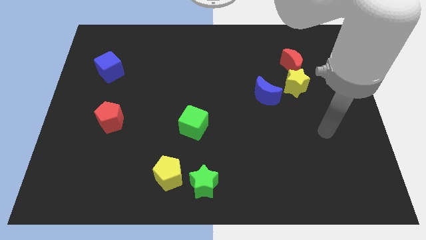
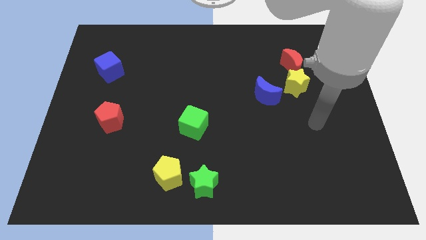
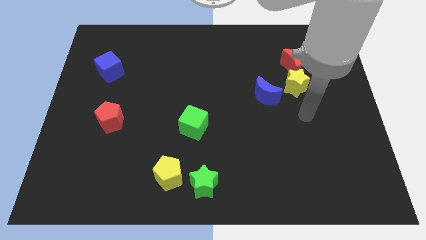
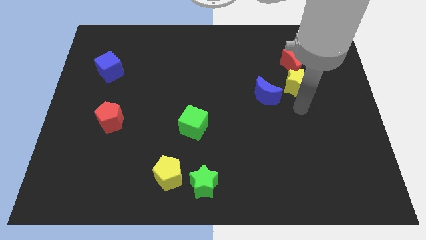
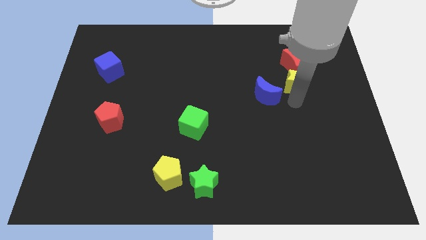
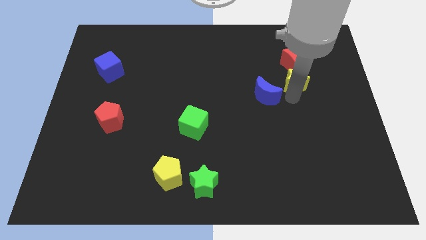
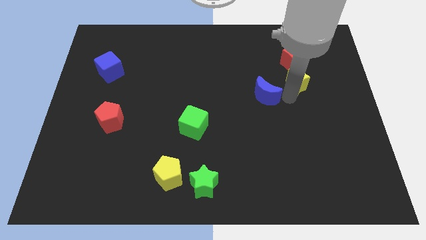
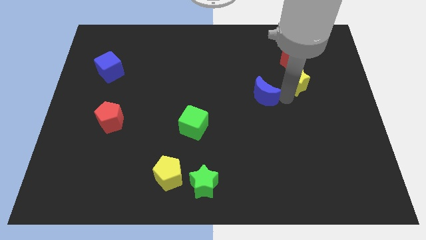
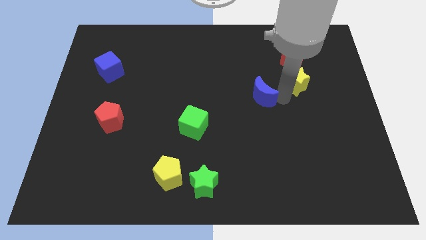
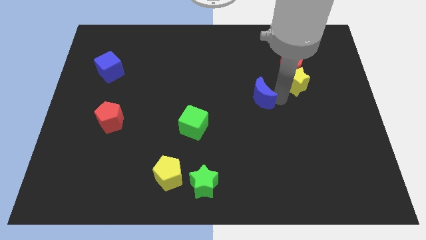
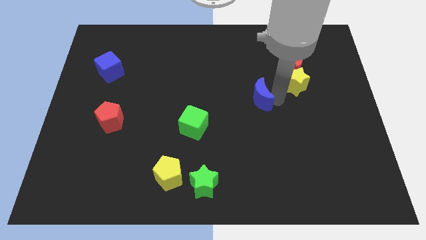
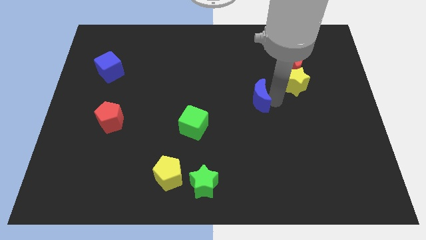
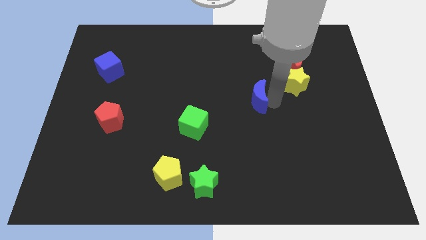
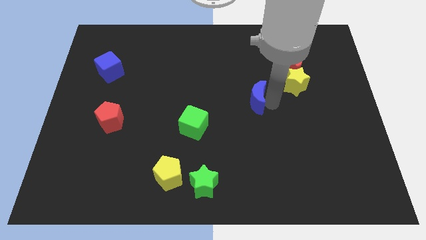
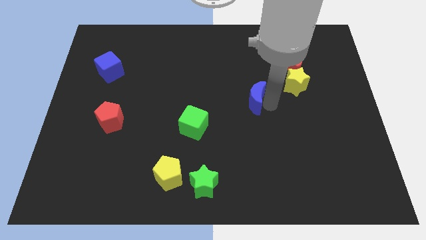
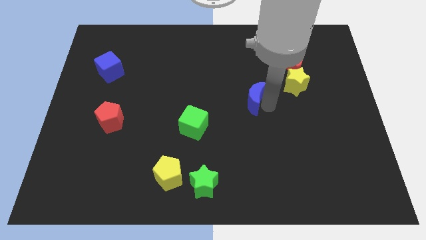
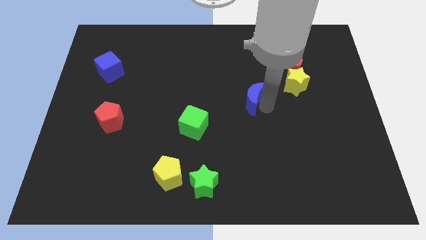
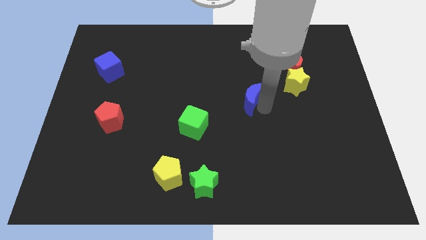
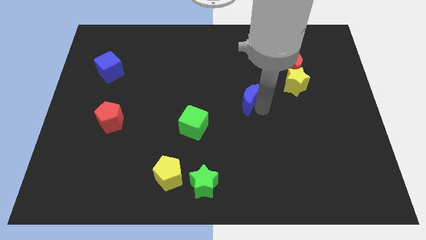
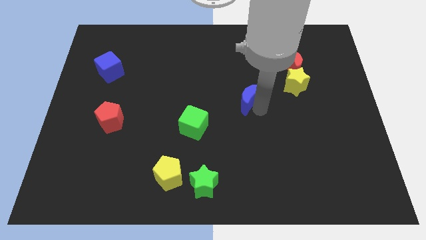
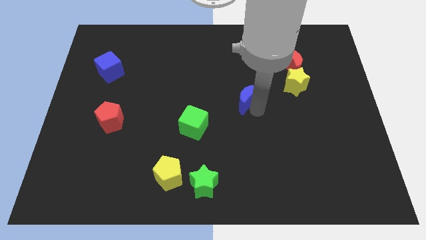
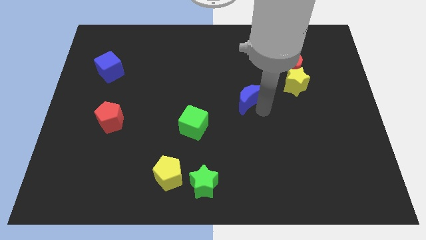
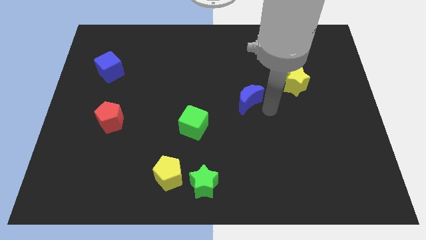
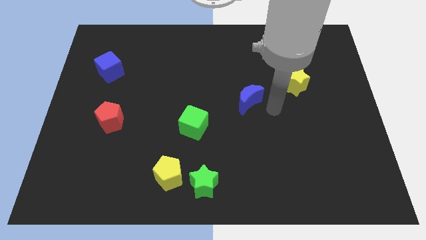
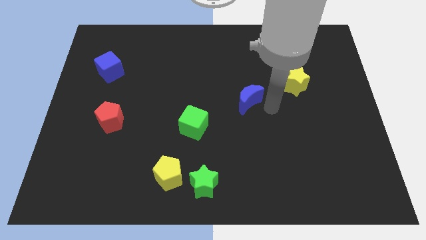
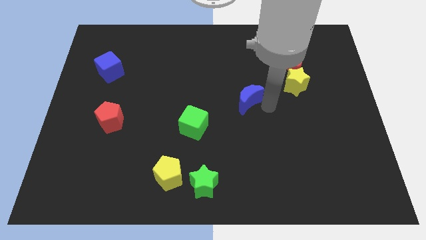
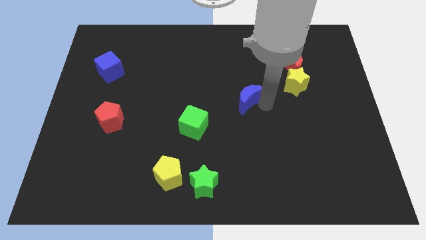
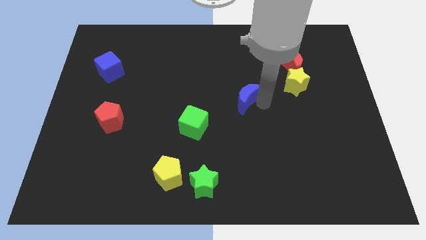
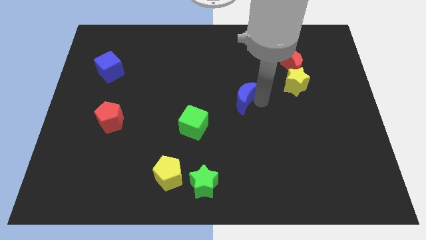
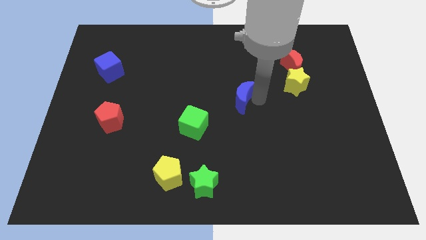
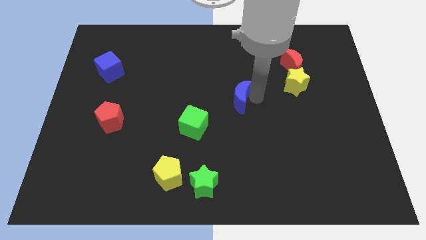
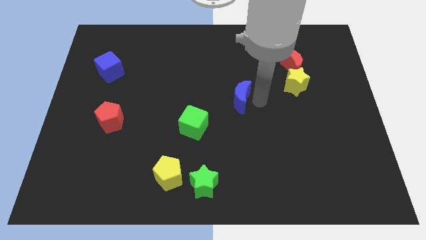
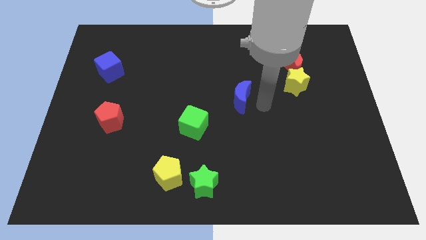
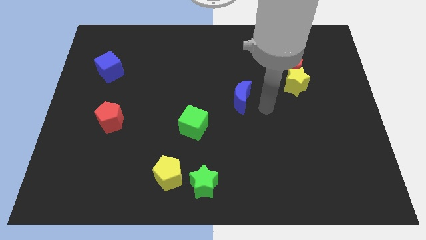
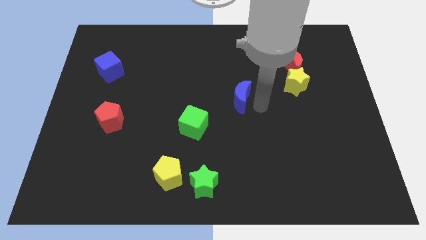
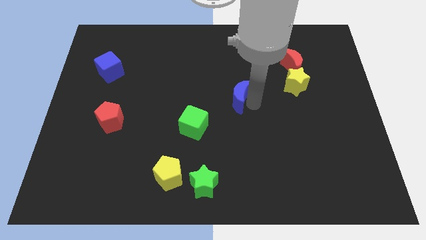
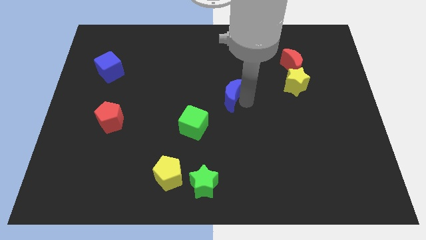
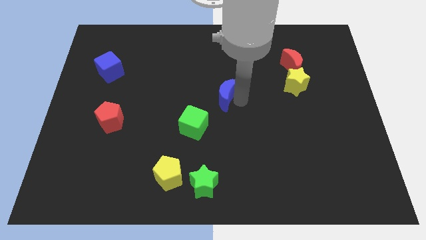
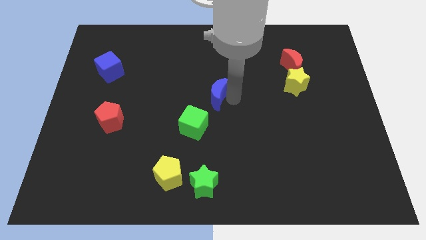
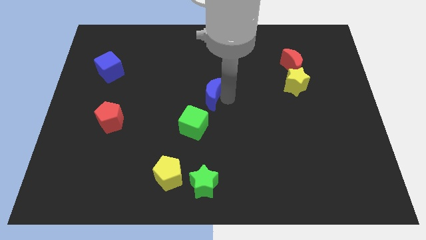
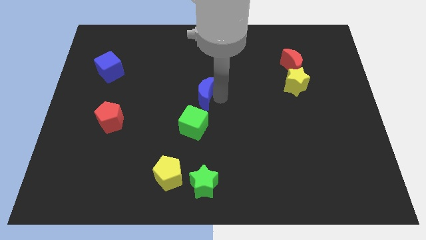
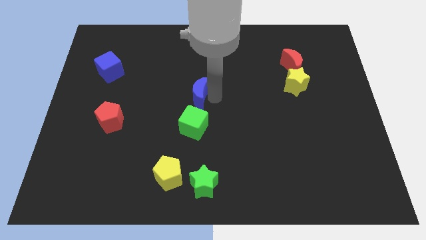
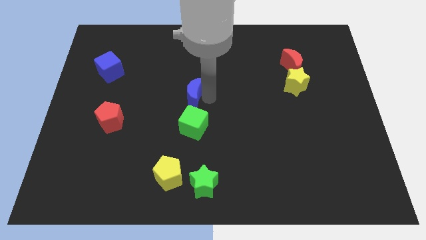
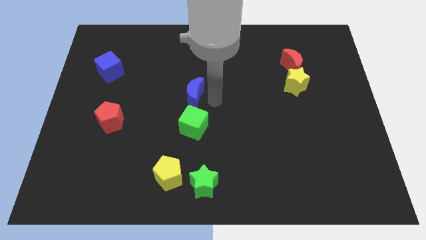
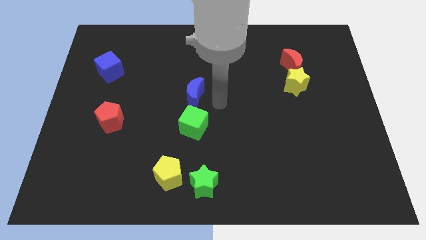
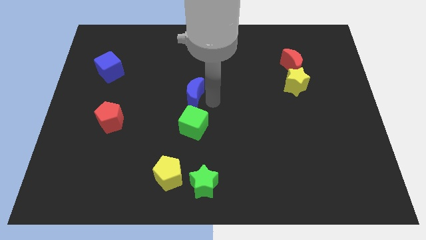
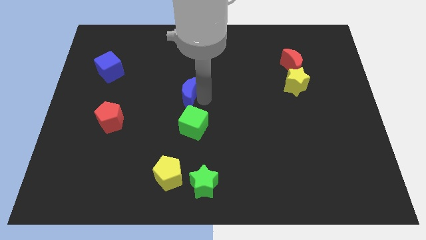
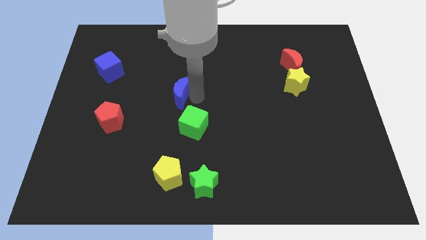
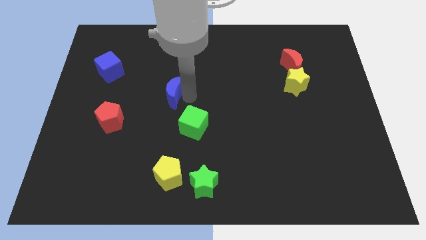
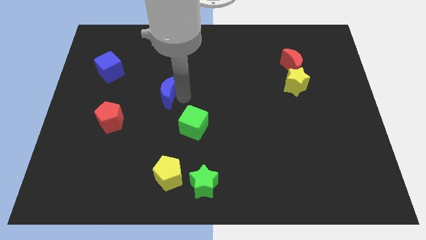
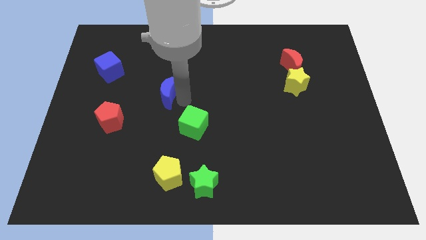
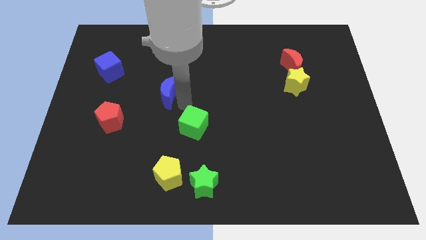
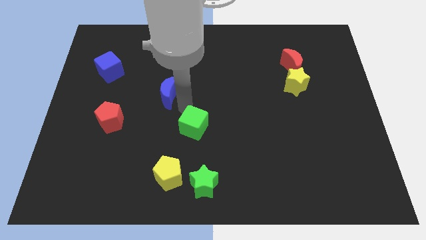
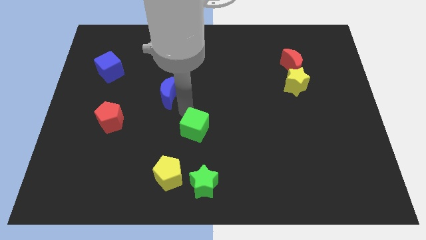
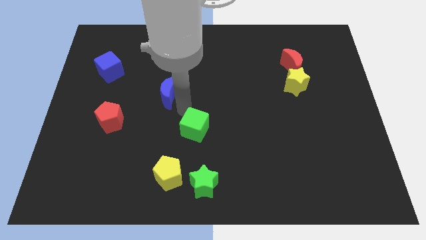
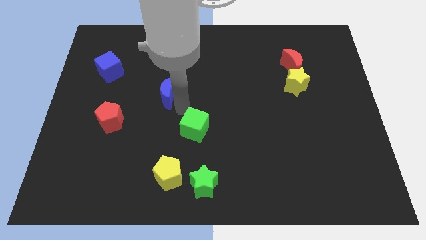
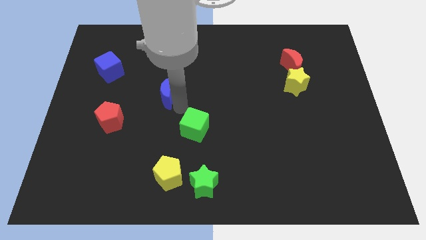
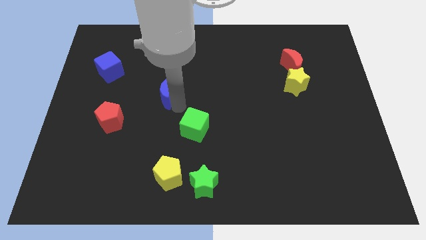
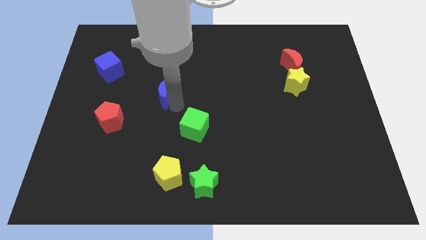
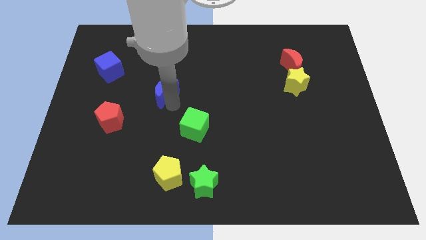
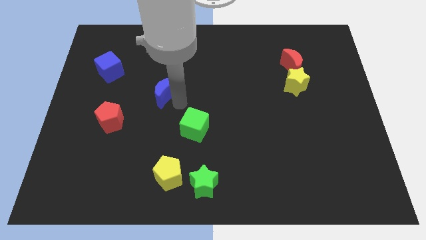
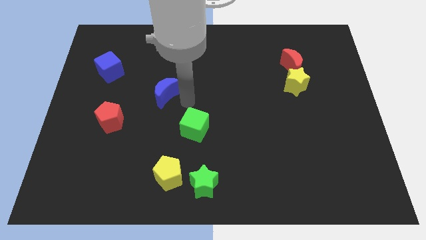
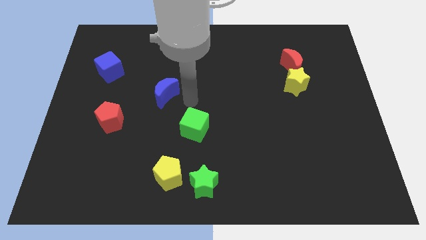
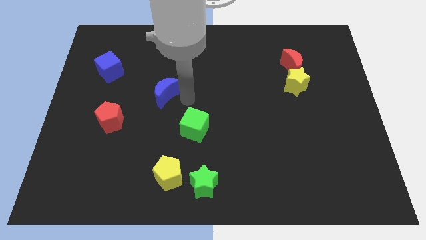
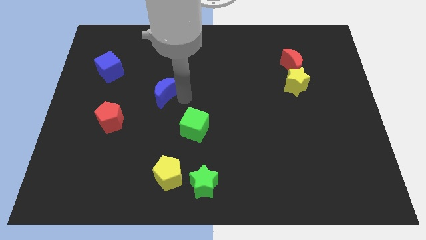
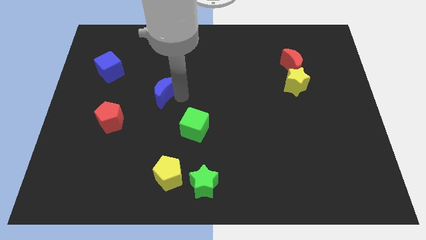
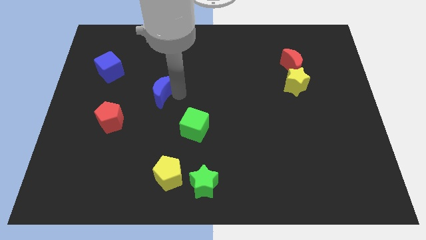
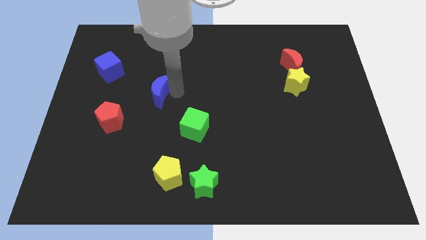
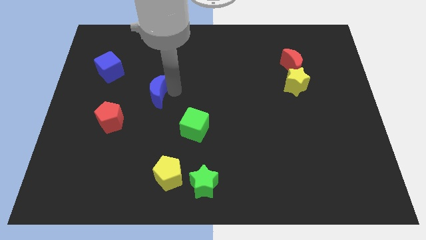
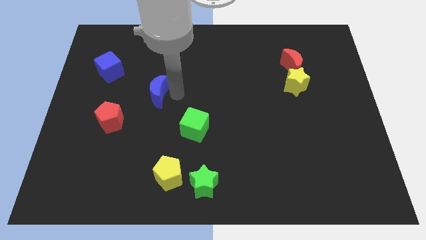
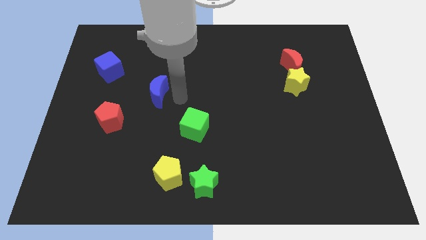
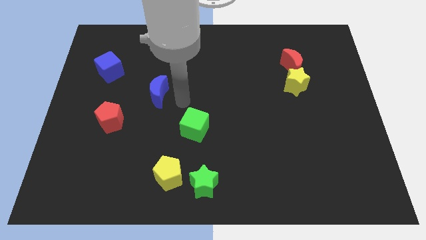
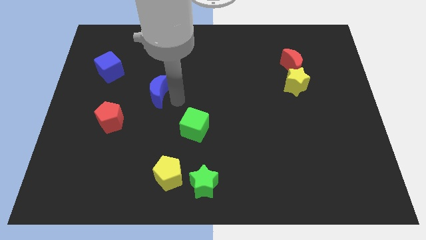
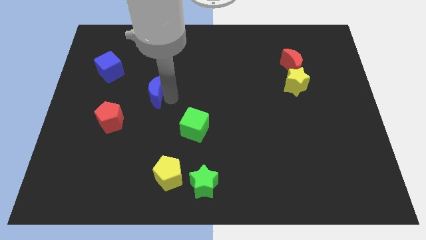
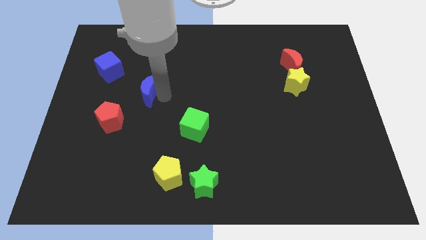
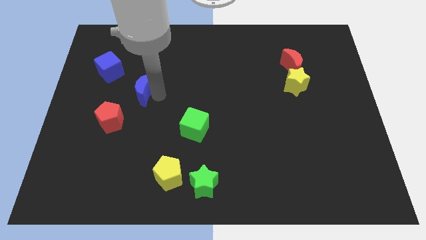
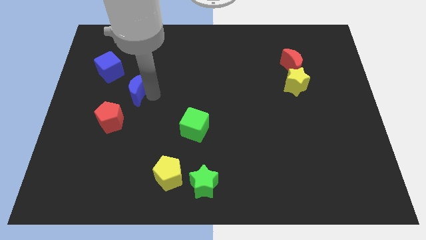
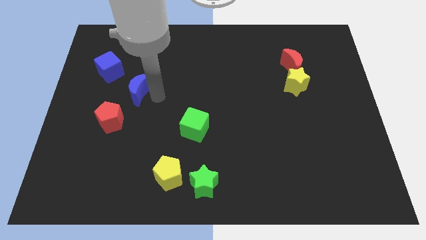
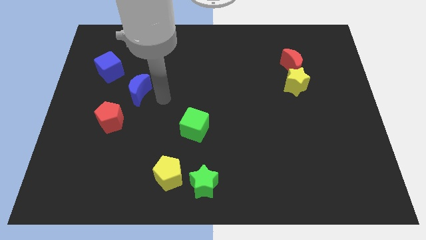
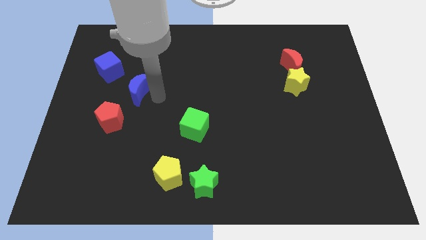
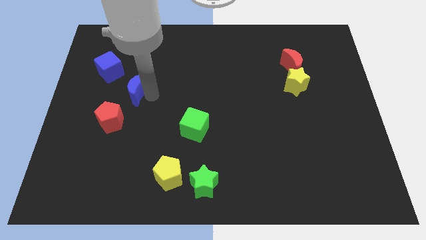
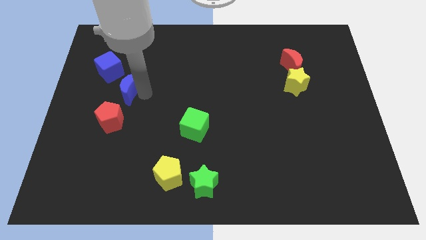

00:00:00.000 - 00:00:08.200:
put the blue moon to the top side of the red pentagon
